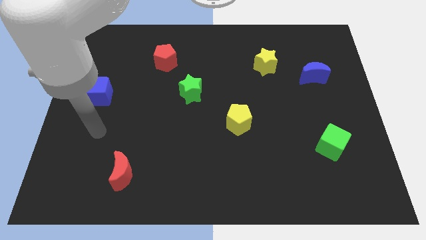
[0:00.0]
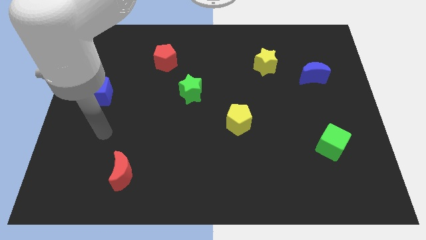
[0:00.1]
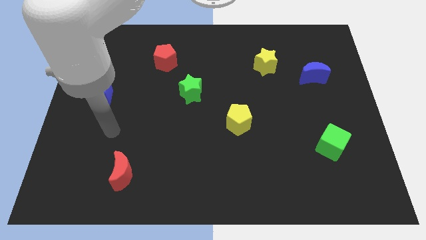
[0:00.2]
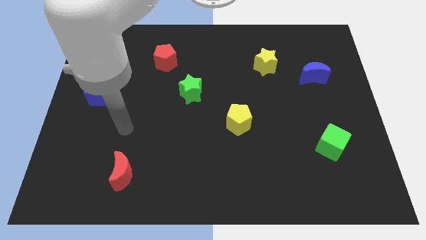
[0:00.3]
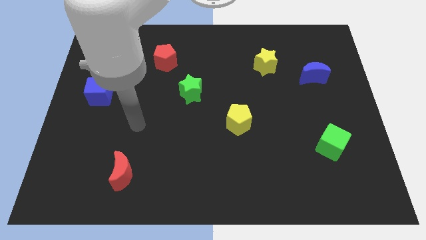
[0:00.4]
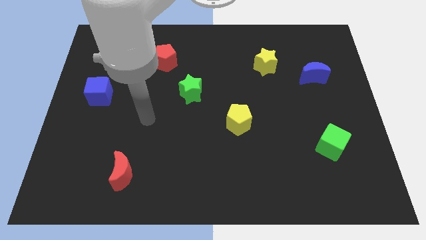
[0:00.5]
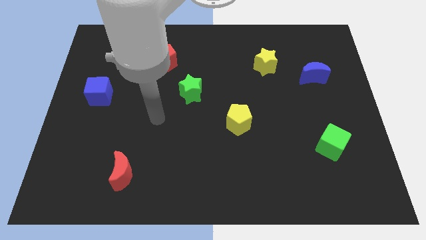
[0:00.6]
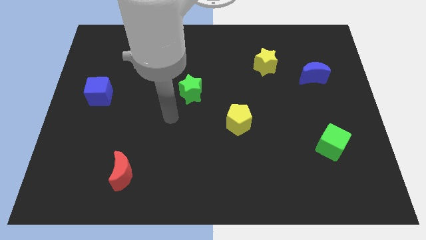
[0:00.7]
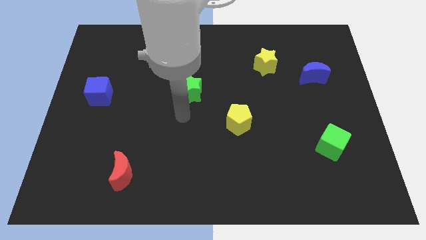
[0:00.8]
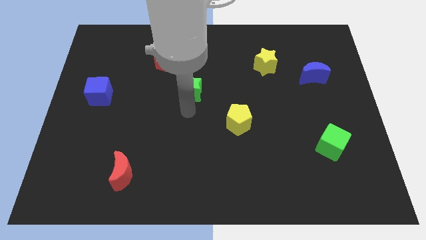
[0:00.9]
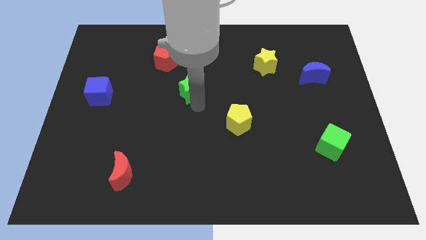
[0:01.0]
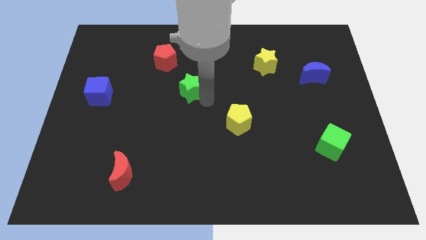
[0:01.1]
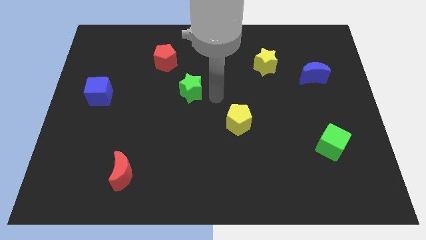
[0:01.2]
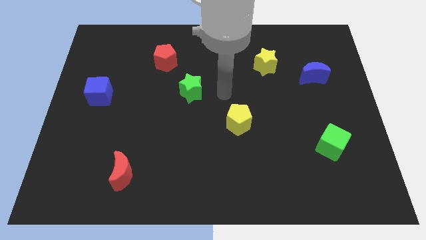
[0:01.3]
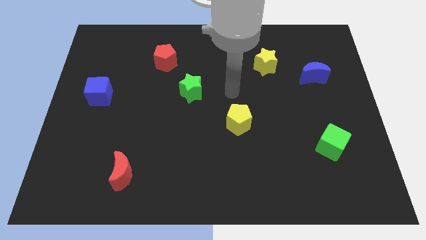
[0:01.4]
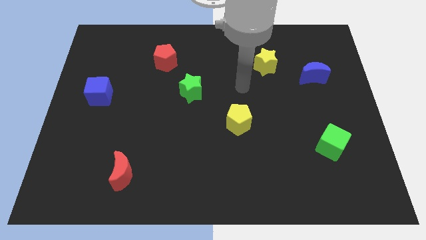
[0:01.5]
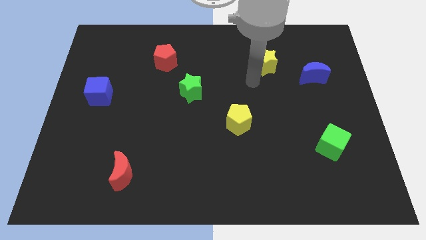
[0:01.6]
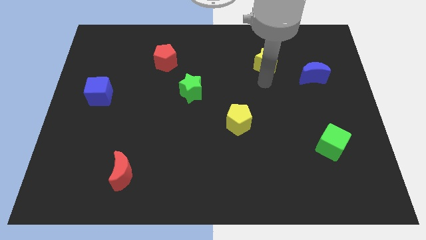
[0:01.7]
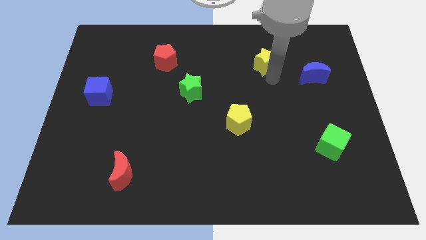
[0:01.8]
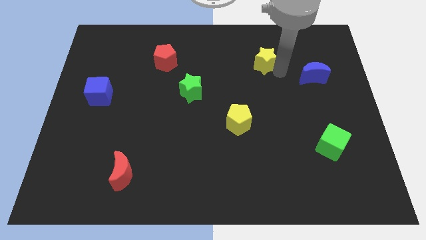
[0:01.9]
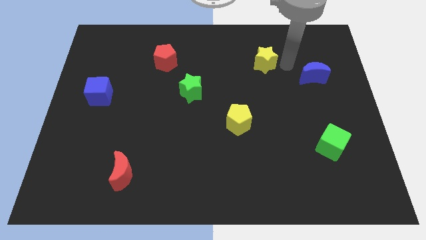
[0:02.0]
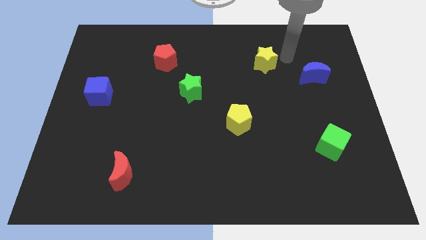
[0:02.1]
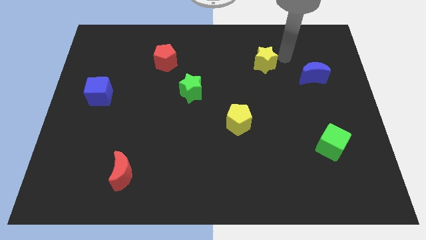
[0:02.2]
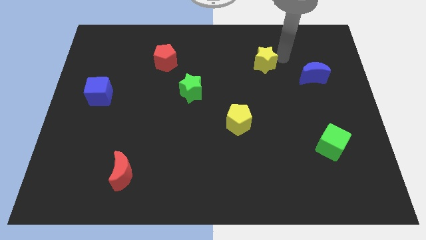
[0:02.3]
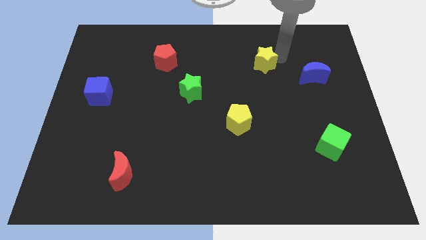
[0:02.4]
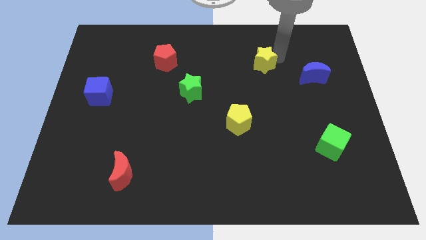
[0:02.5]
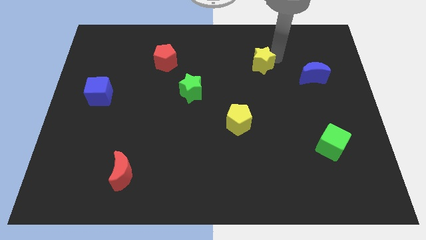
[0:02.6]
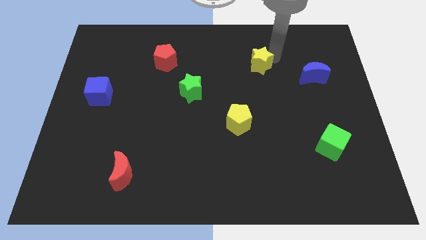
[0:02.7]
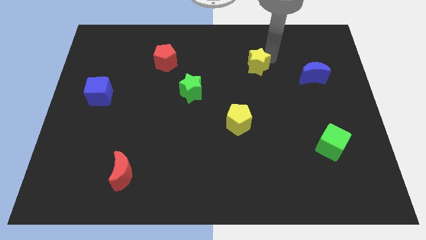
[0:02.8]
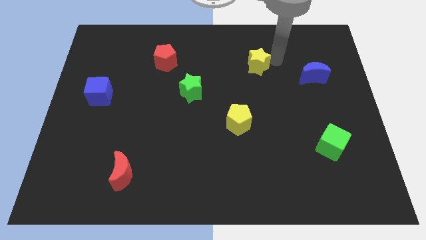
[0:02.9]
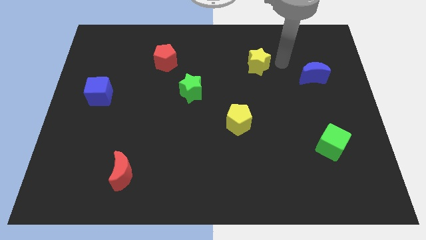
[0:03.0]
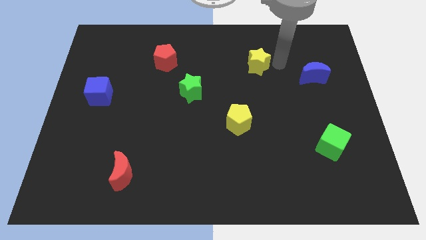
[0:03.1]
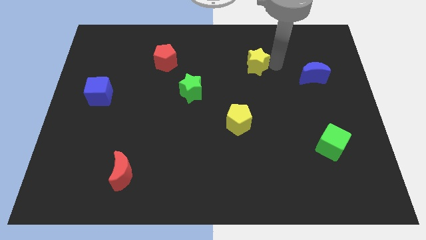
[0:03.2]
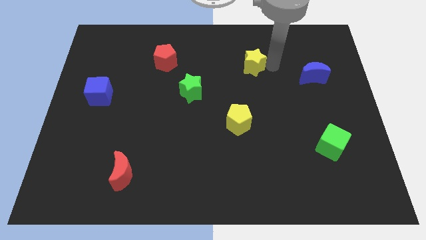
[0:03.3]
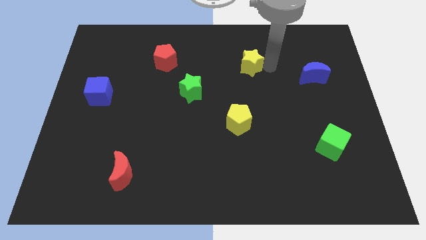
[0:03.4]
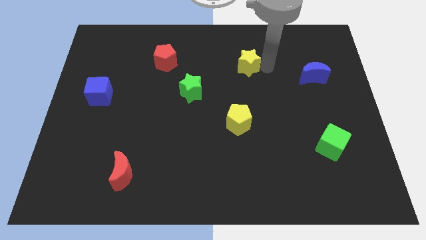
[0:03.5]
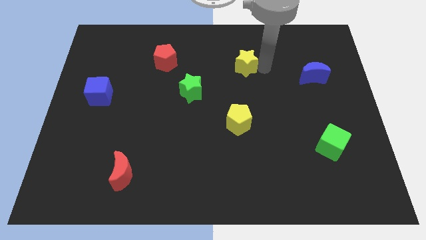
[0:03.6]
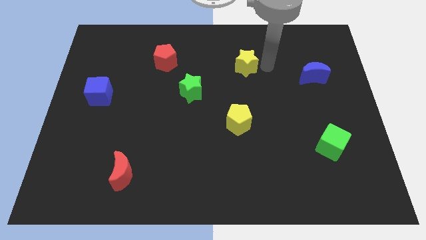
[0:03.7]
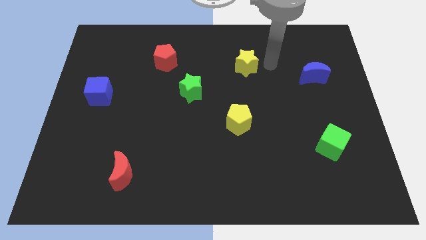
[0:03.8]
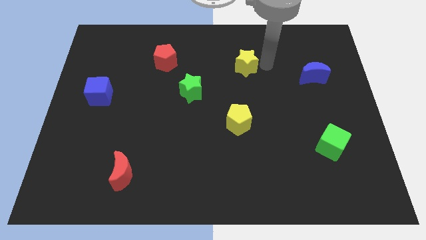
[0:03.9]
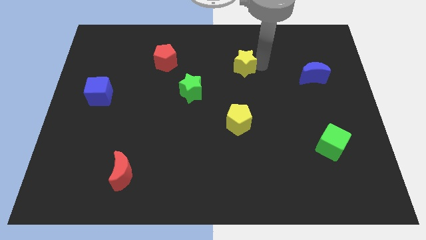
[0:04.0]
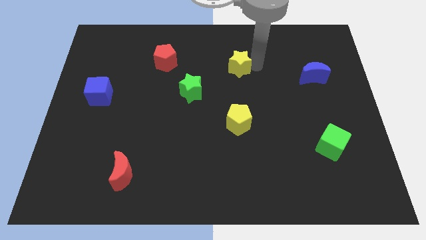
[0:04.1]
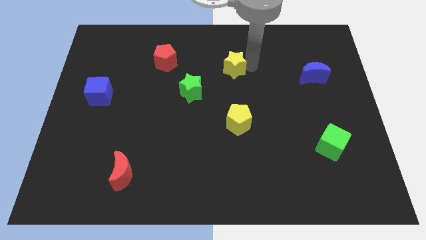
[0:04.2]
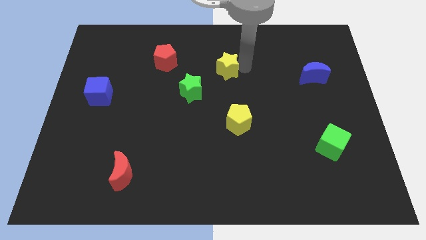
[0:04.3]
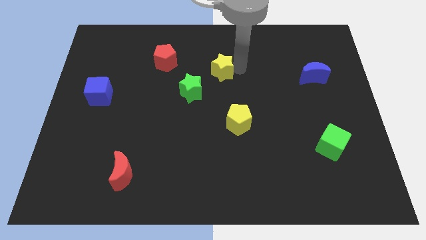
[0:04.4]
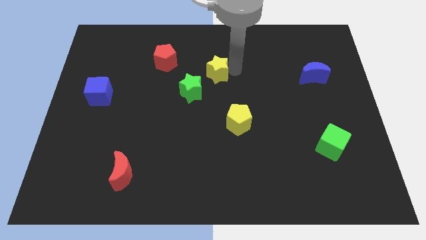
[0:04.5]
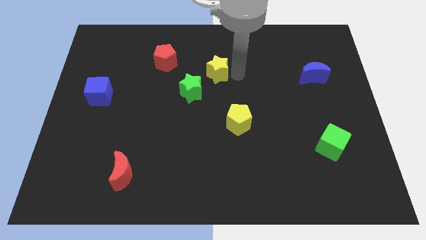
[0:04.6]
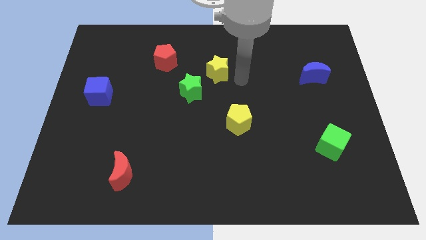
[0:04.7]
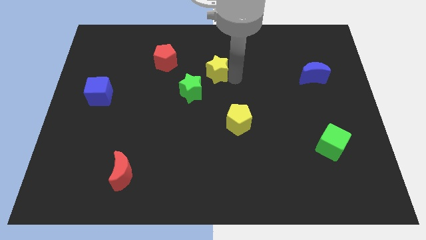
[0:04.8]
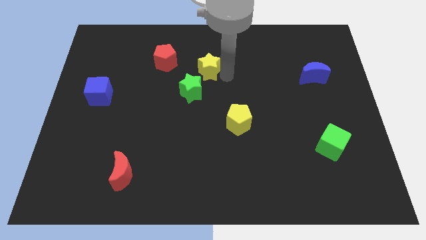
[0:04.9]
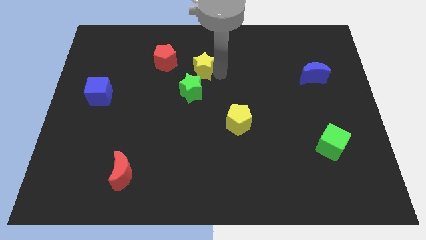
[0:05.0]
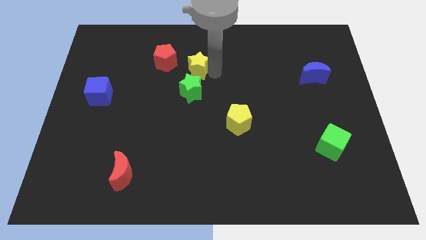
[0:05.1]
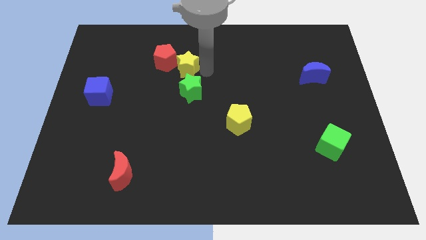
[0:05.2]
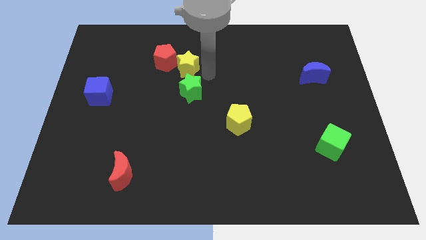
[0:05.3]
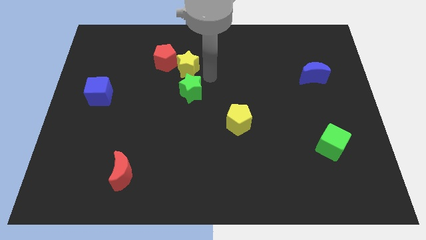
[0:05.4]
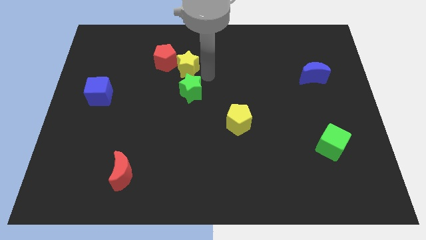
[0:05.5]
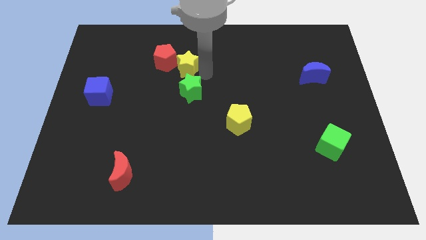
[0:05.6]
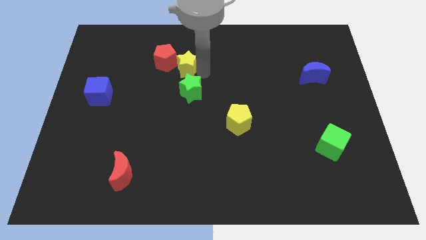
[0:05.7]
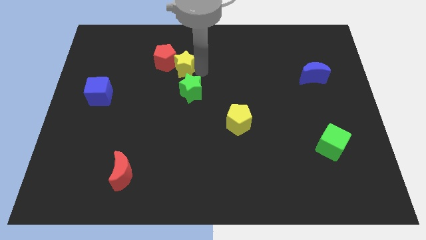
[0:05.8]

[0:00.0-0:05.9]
put the yellow star next to the red pentagon

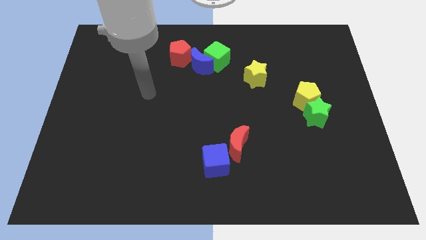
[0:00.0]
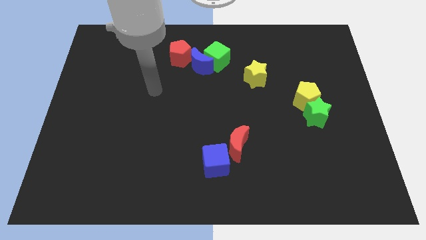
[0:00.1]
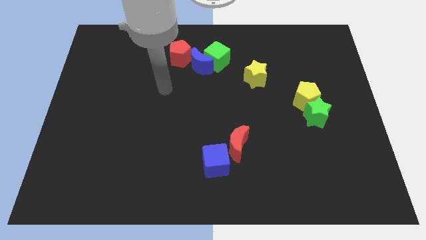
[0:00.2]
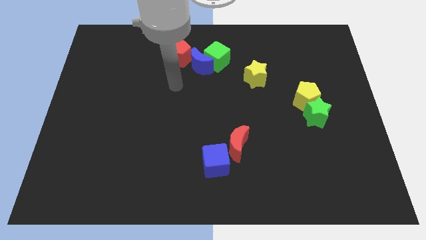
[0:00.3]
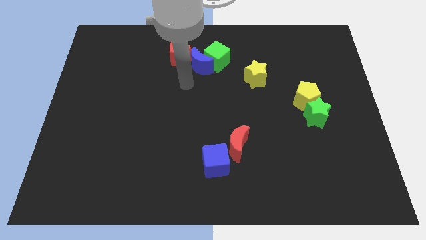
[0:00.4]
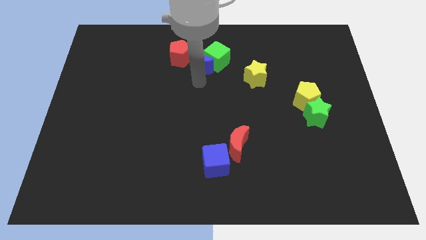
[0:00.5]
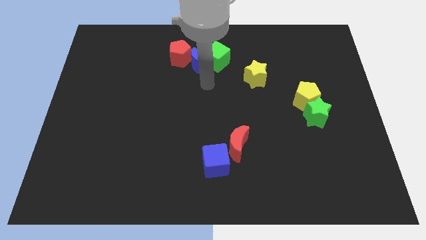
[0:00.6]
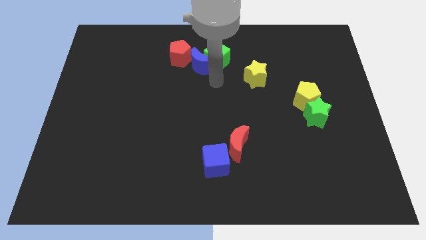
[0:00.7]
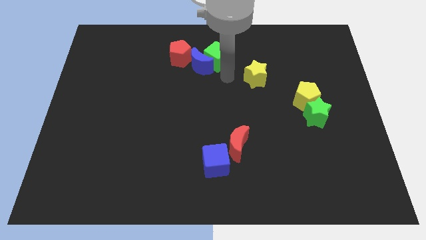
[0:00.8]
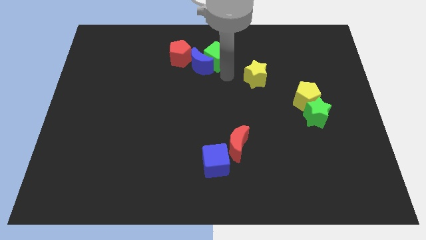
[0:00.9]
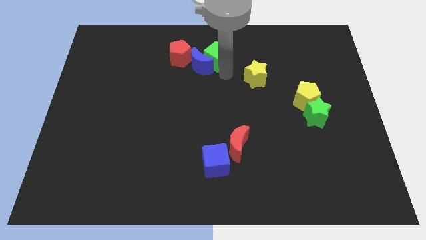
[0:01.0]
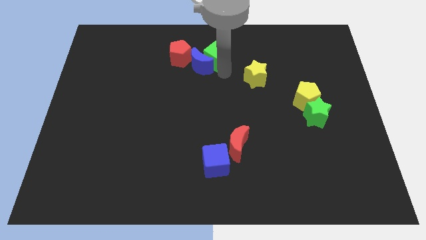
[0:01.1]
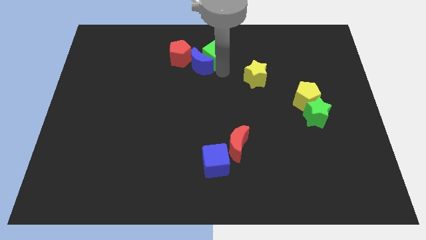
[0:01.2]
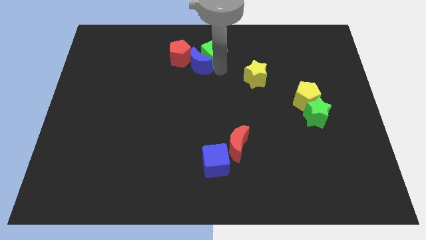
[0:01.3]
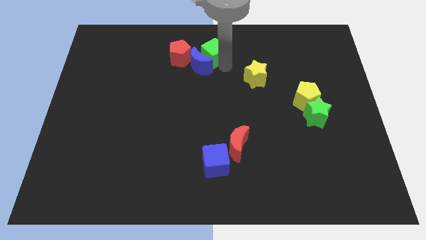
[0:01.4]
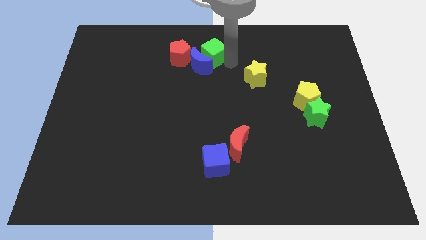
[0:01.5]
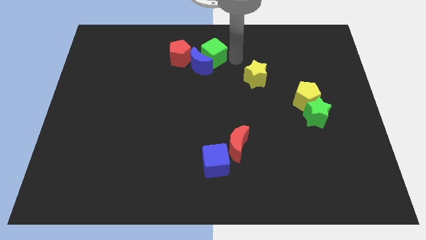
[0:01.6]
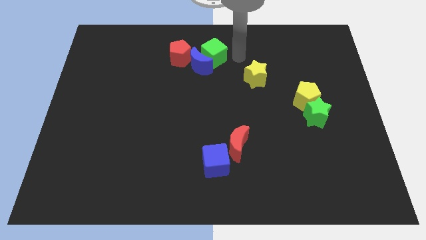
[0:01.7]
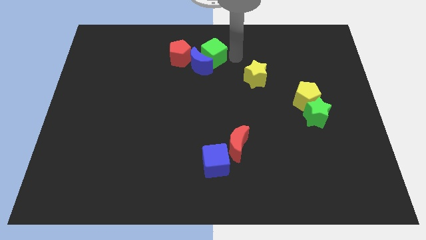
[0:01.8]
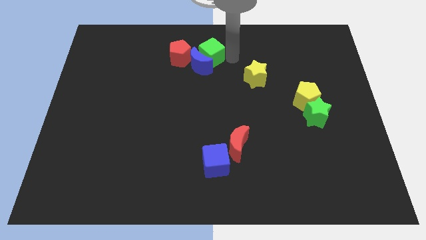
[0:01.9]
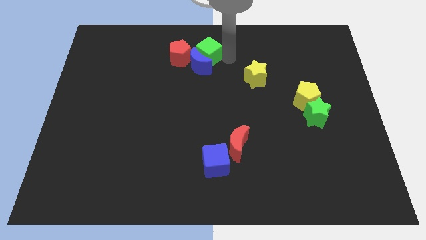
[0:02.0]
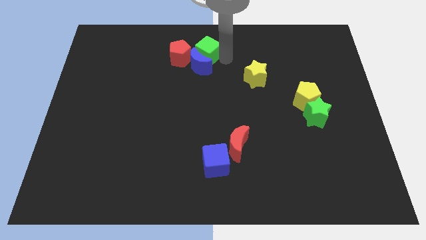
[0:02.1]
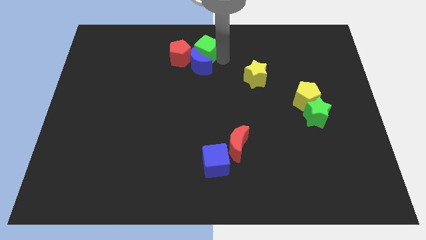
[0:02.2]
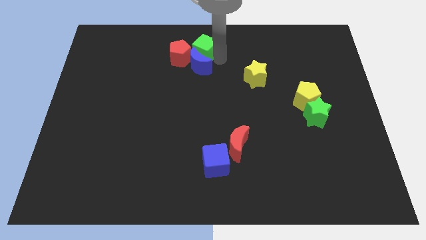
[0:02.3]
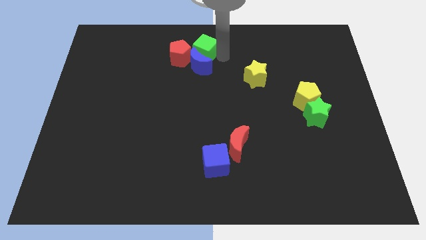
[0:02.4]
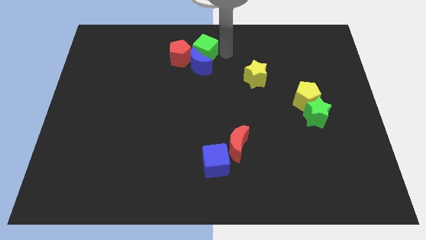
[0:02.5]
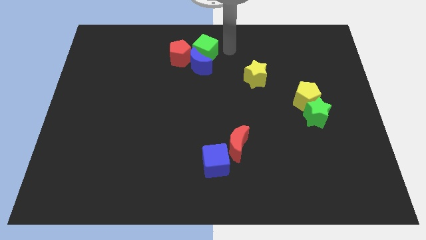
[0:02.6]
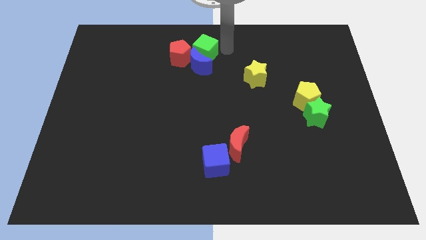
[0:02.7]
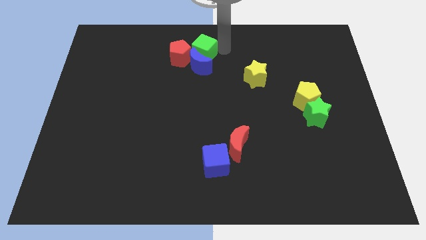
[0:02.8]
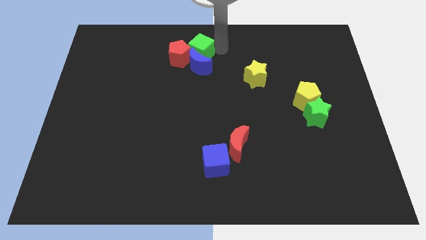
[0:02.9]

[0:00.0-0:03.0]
slide the green cube towards the red pentagon
